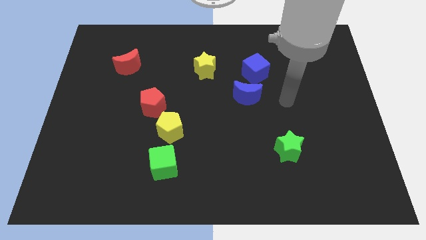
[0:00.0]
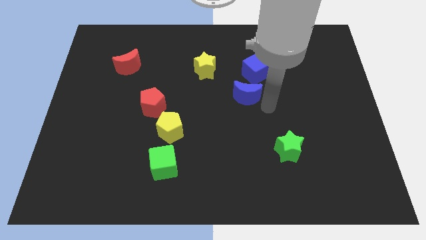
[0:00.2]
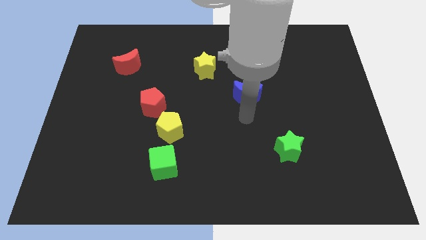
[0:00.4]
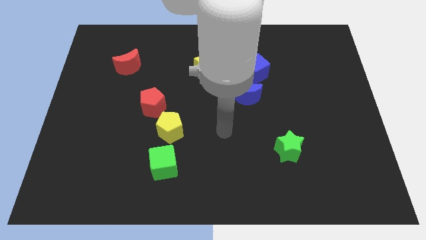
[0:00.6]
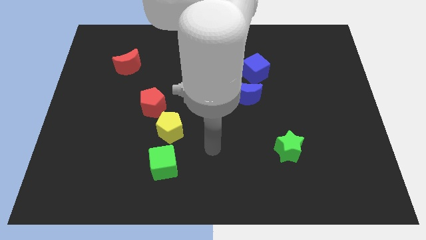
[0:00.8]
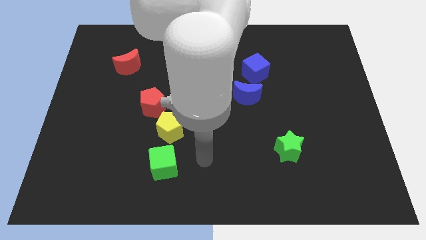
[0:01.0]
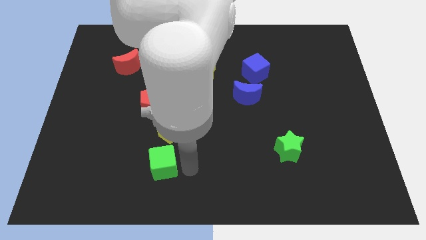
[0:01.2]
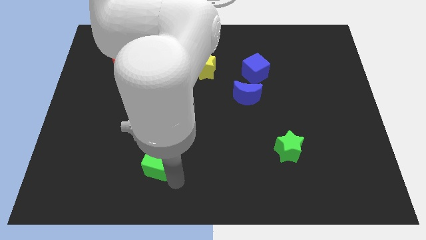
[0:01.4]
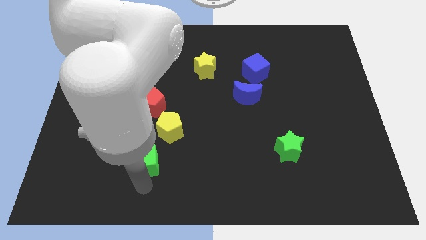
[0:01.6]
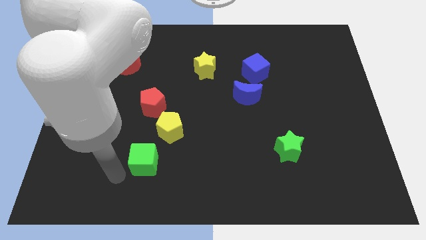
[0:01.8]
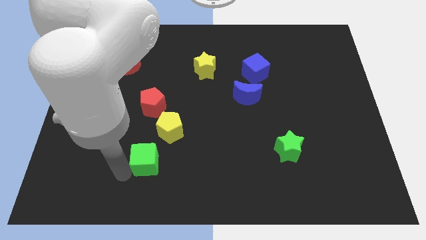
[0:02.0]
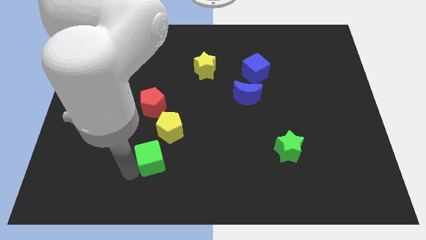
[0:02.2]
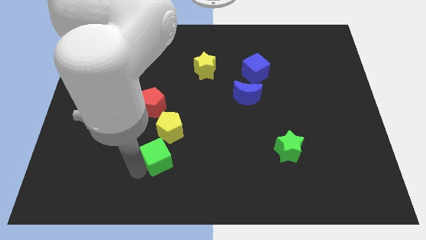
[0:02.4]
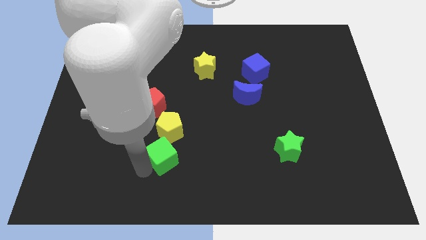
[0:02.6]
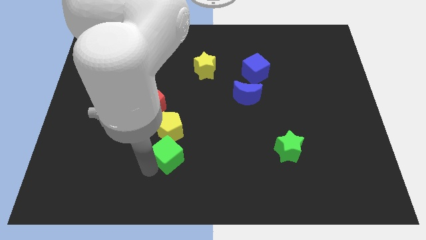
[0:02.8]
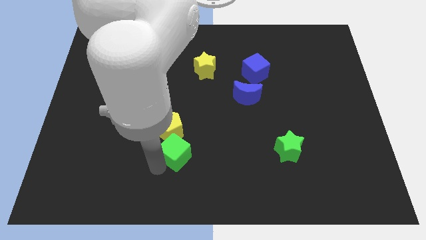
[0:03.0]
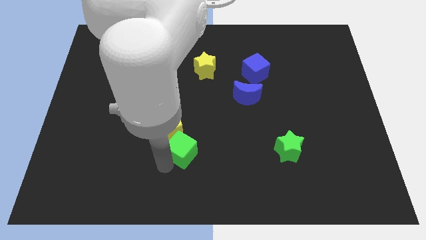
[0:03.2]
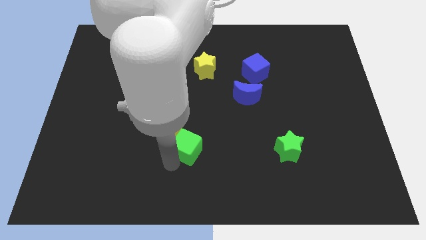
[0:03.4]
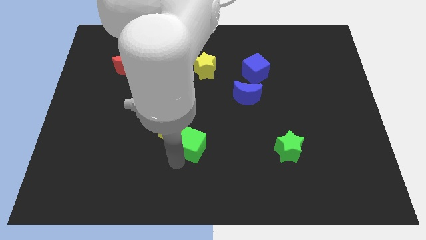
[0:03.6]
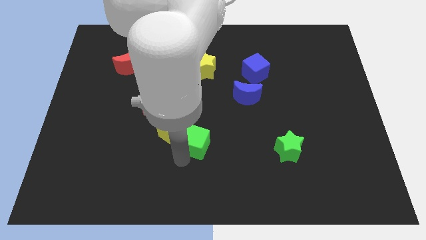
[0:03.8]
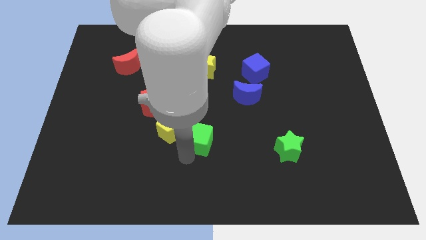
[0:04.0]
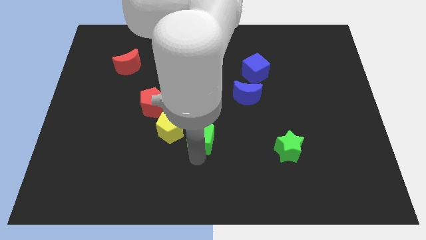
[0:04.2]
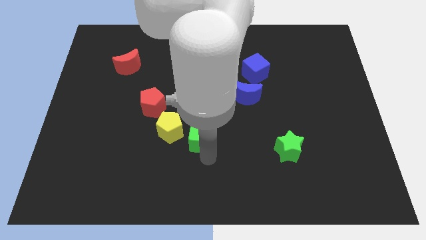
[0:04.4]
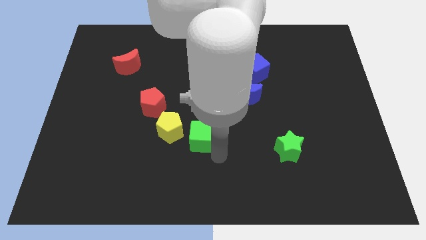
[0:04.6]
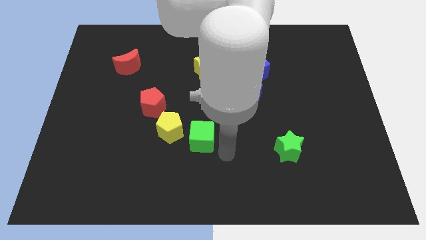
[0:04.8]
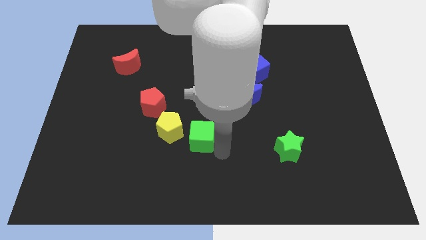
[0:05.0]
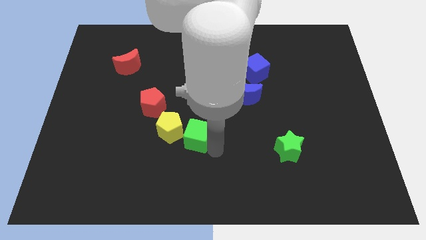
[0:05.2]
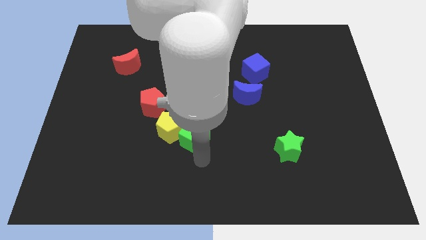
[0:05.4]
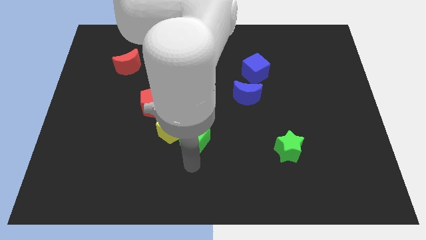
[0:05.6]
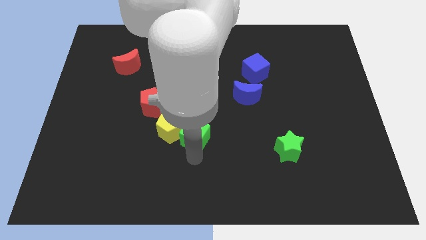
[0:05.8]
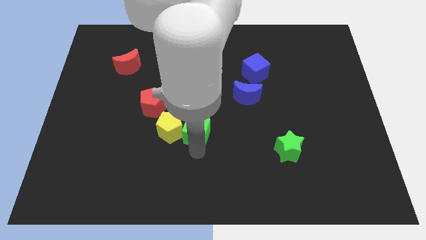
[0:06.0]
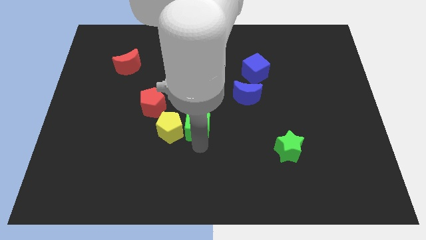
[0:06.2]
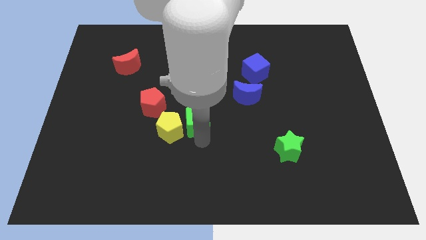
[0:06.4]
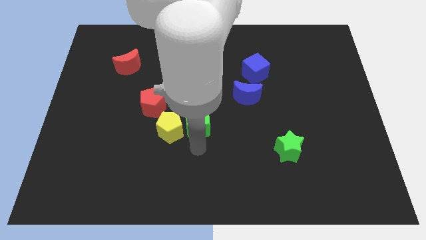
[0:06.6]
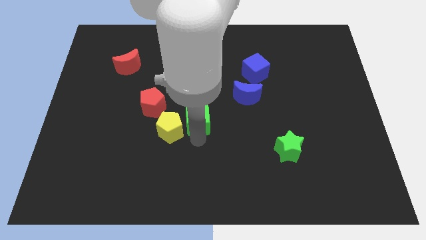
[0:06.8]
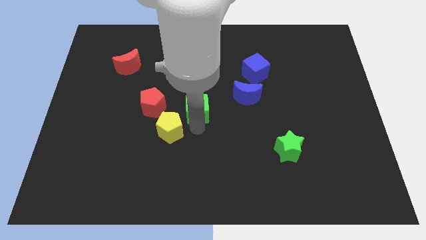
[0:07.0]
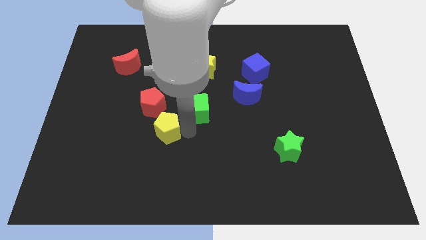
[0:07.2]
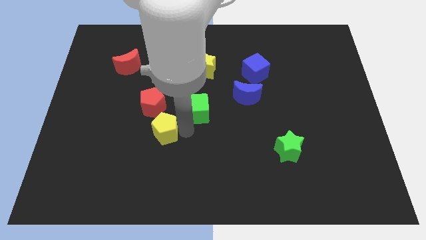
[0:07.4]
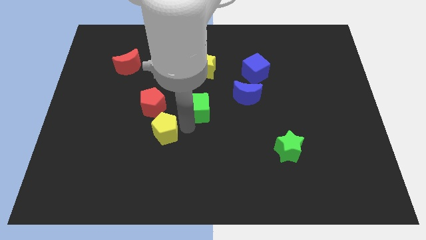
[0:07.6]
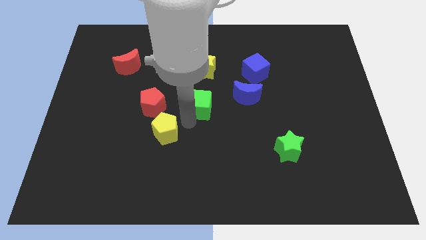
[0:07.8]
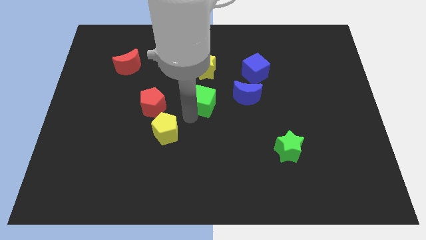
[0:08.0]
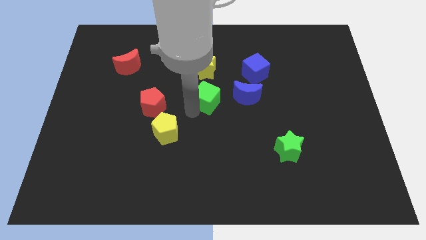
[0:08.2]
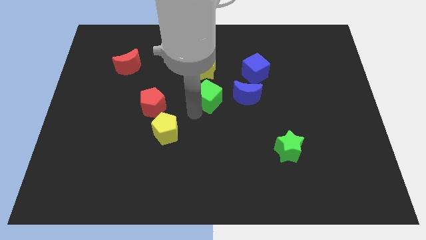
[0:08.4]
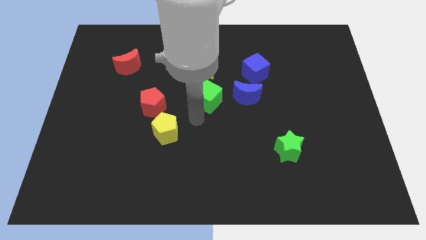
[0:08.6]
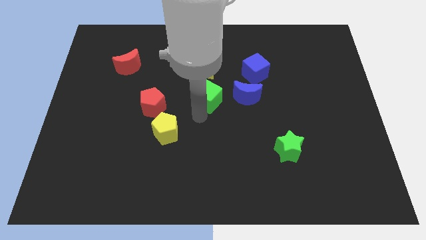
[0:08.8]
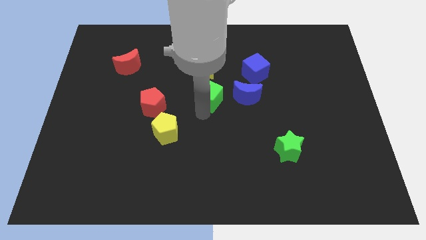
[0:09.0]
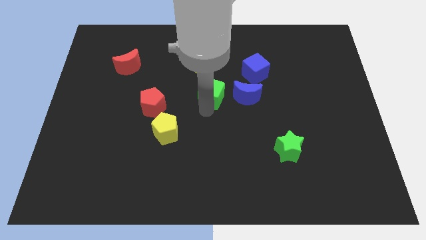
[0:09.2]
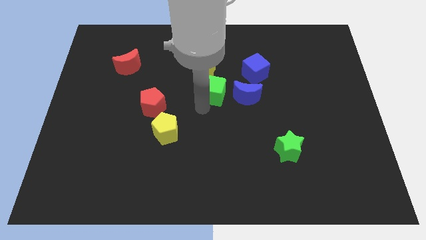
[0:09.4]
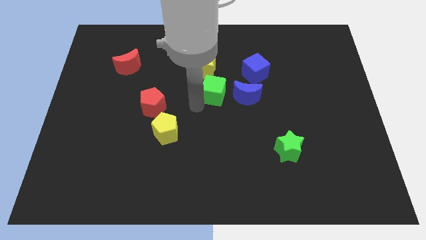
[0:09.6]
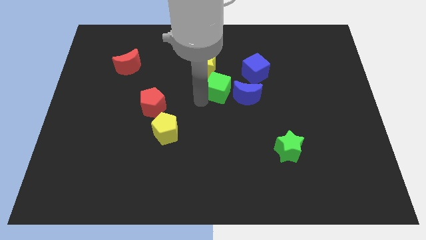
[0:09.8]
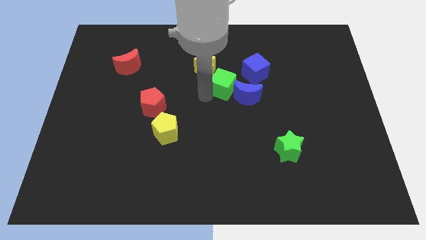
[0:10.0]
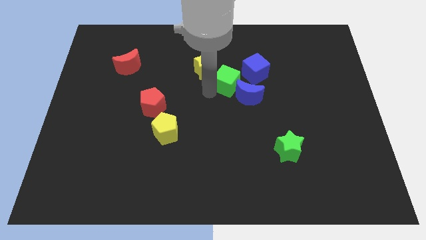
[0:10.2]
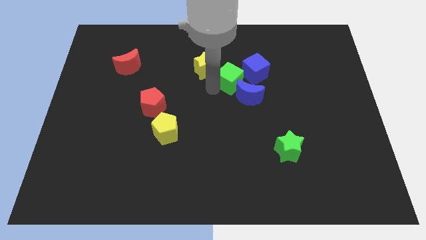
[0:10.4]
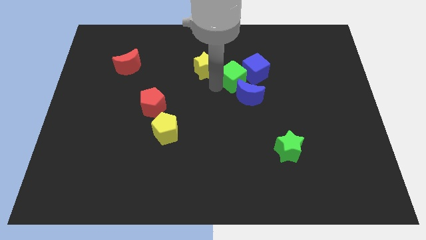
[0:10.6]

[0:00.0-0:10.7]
put the green cube to the blue cube

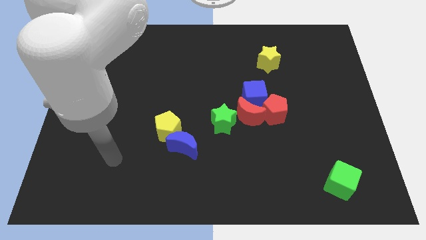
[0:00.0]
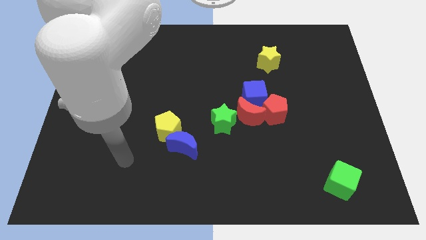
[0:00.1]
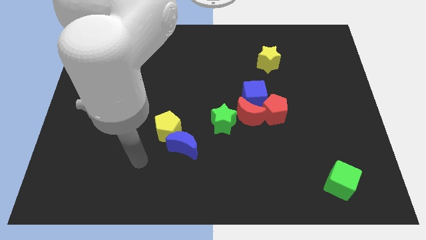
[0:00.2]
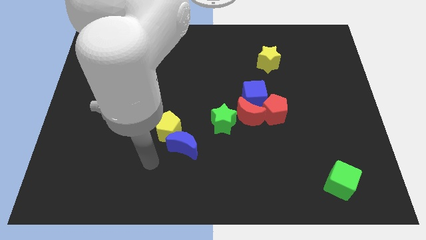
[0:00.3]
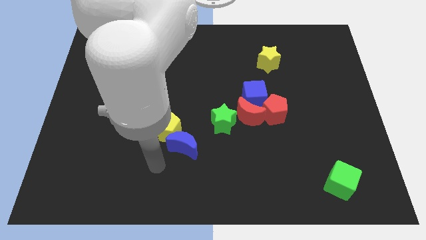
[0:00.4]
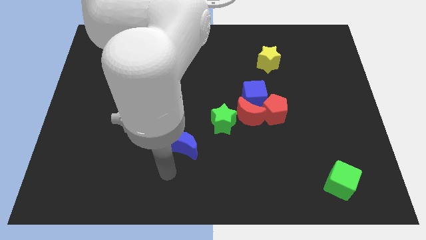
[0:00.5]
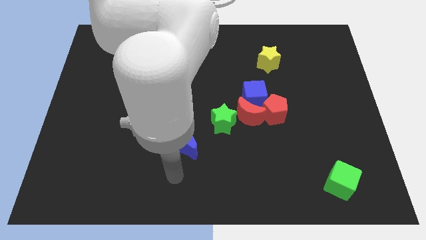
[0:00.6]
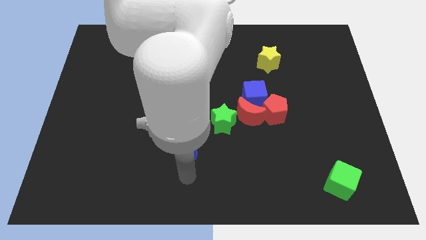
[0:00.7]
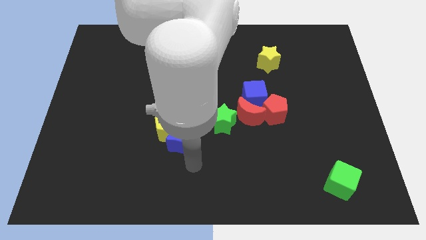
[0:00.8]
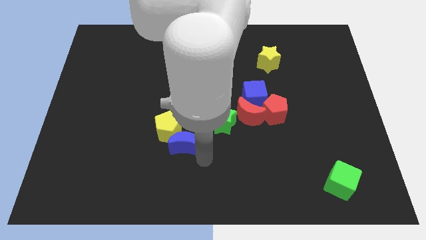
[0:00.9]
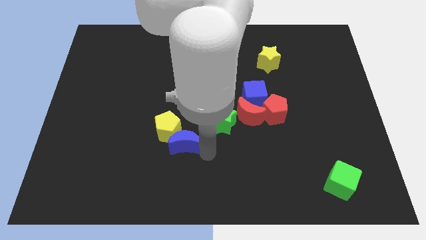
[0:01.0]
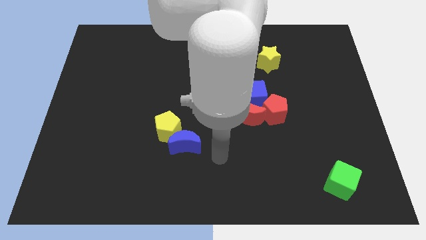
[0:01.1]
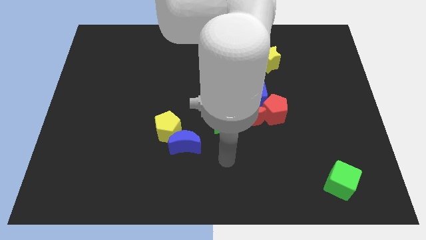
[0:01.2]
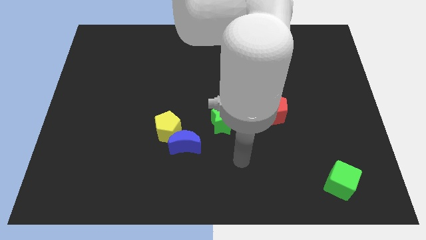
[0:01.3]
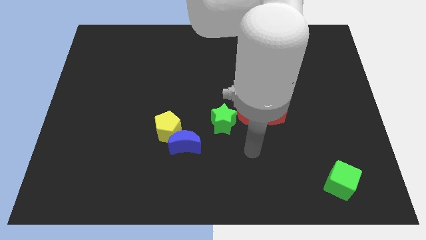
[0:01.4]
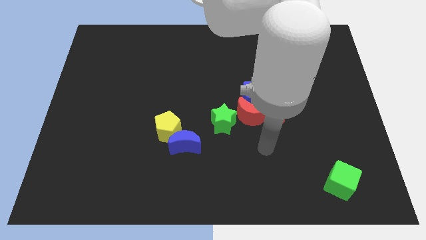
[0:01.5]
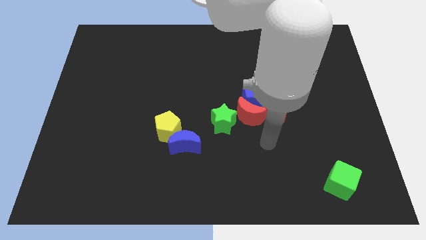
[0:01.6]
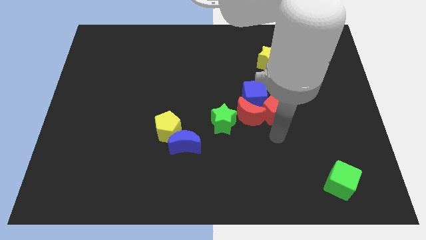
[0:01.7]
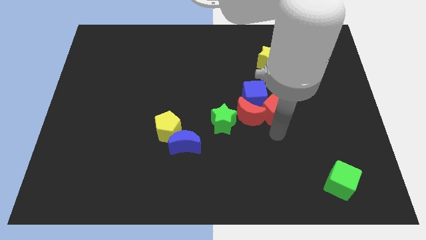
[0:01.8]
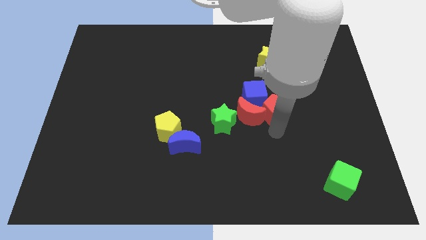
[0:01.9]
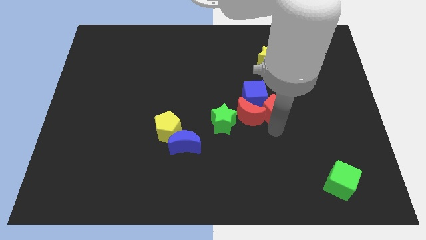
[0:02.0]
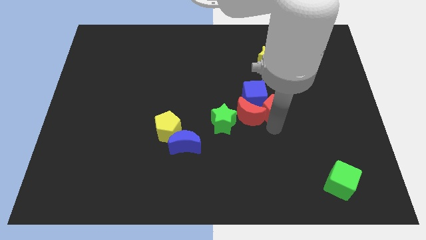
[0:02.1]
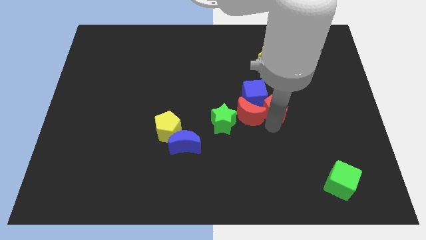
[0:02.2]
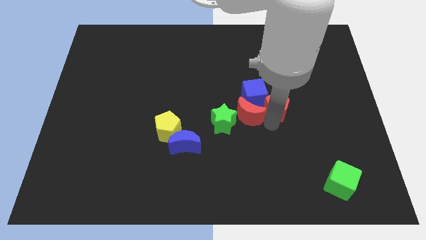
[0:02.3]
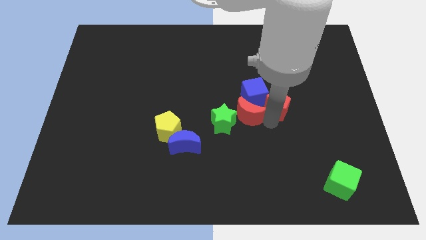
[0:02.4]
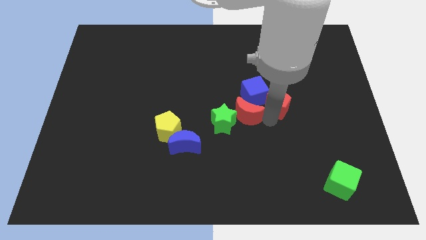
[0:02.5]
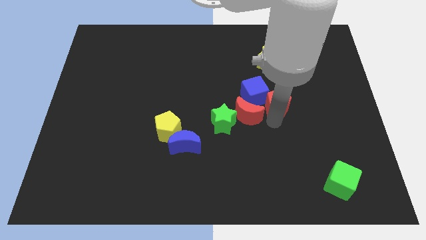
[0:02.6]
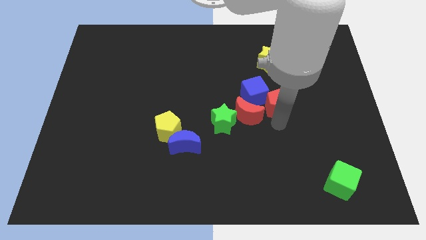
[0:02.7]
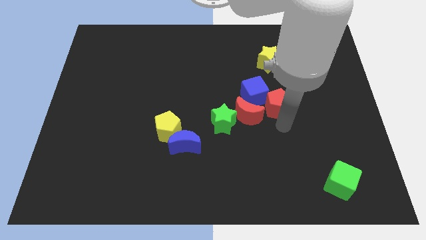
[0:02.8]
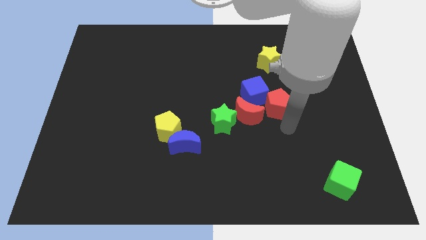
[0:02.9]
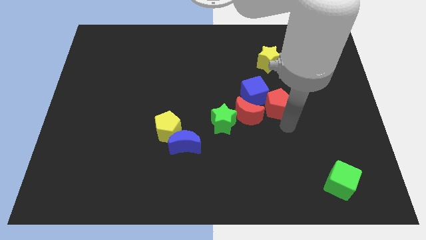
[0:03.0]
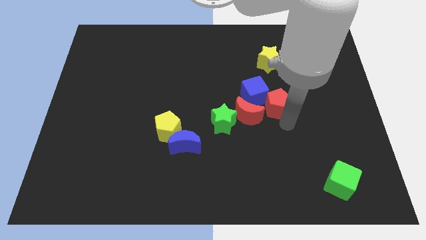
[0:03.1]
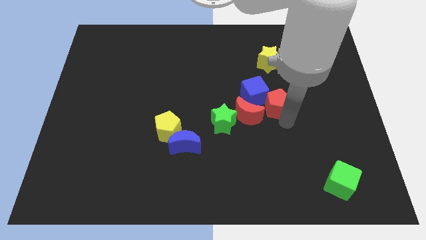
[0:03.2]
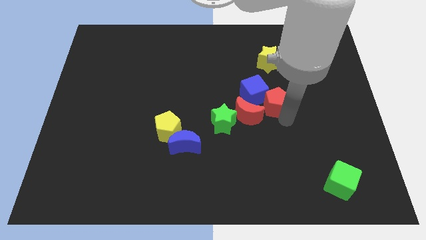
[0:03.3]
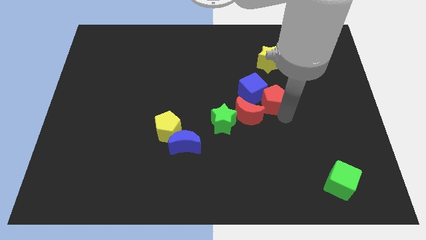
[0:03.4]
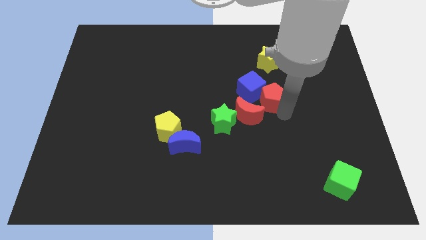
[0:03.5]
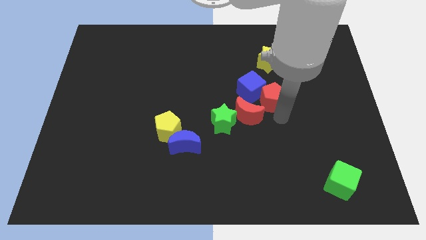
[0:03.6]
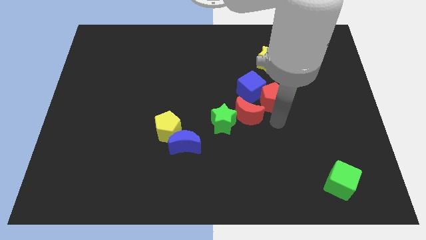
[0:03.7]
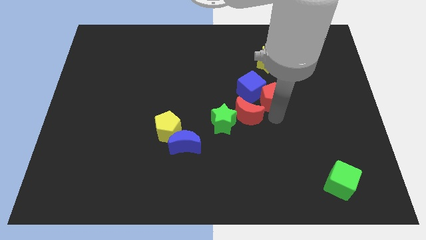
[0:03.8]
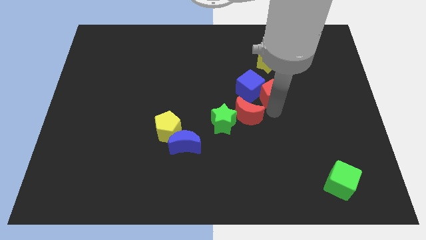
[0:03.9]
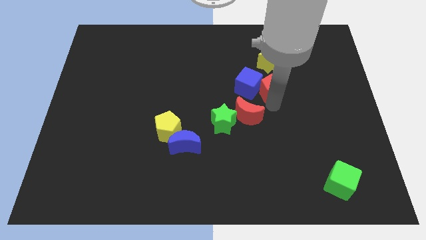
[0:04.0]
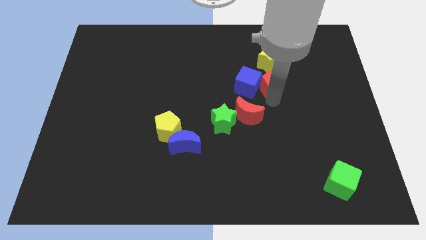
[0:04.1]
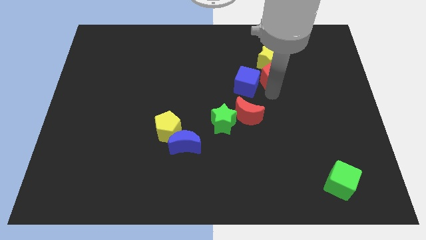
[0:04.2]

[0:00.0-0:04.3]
push the red pentagon towards the yellow star
